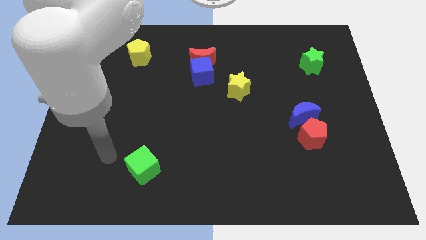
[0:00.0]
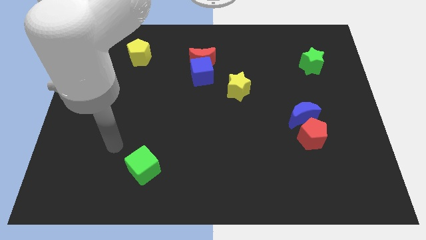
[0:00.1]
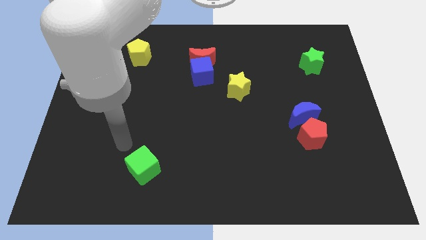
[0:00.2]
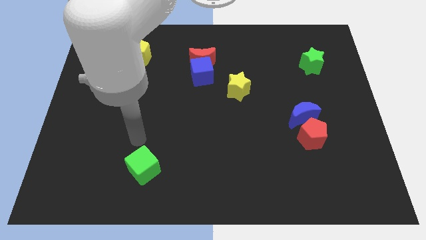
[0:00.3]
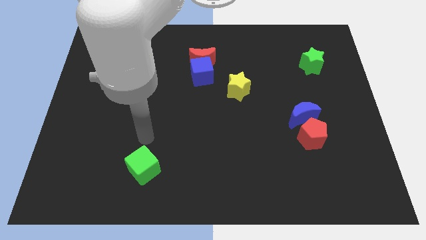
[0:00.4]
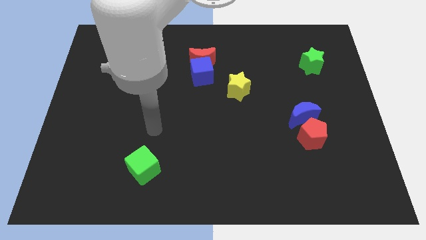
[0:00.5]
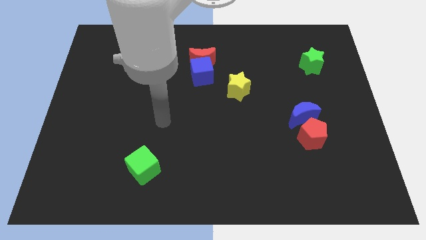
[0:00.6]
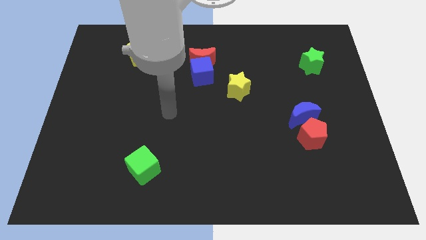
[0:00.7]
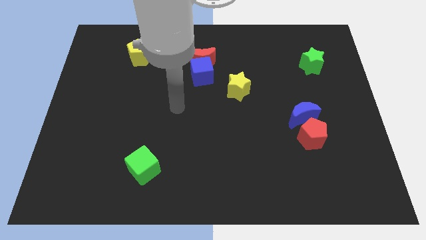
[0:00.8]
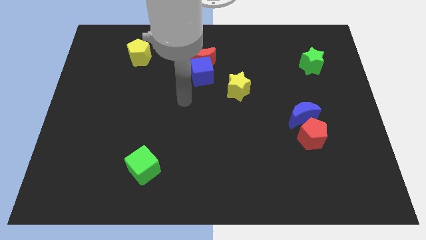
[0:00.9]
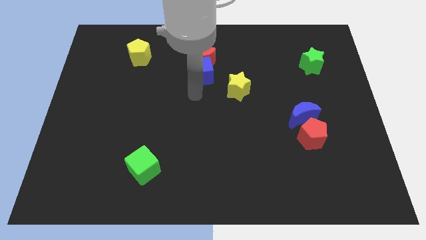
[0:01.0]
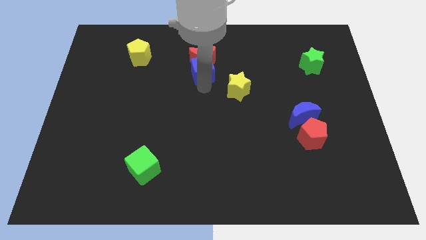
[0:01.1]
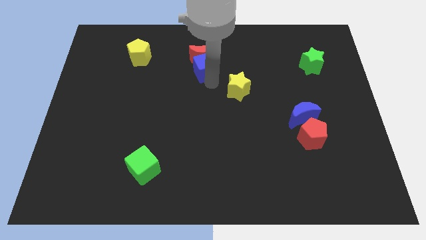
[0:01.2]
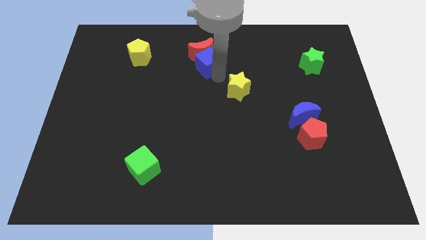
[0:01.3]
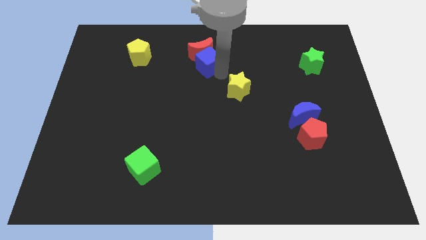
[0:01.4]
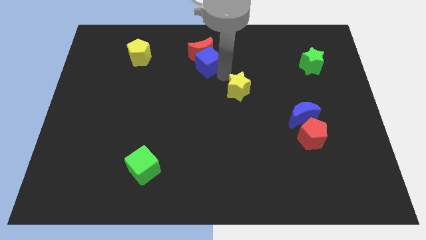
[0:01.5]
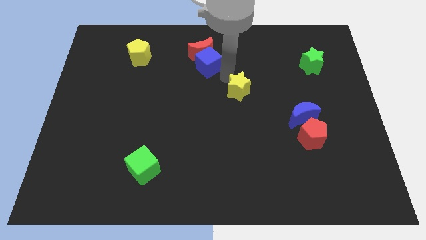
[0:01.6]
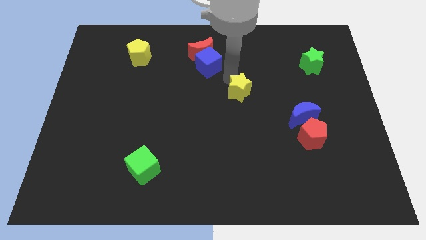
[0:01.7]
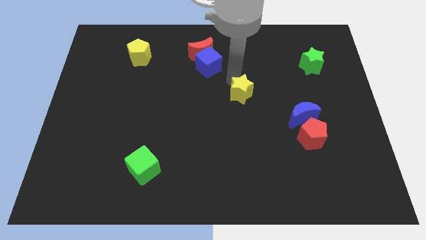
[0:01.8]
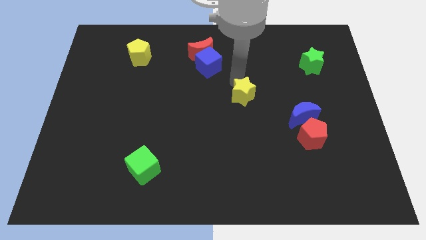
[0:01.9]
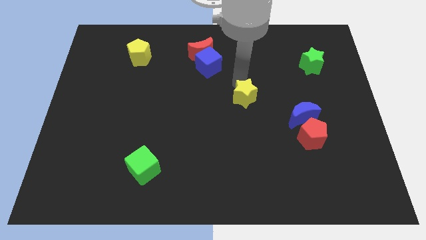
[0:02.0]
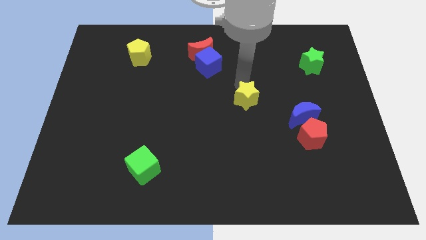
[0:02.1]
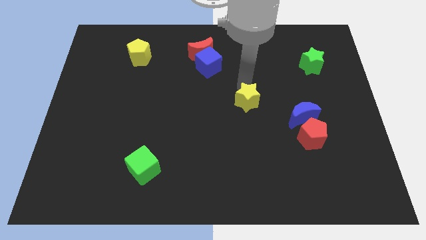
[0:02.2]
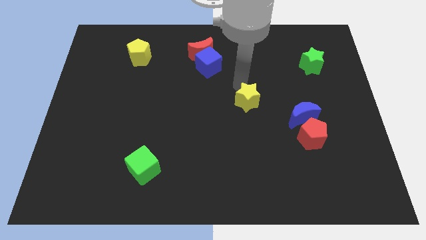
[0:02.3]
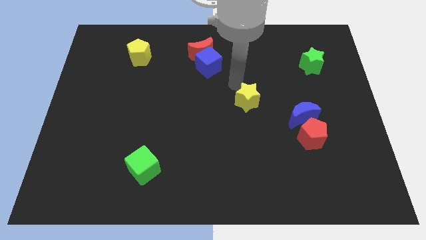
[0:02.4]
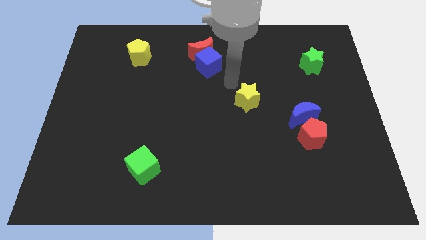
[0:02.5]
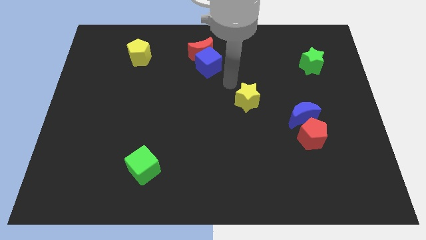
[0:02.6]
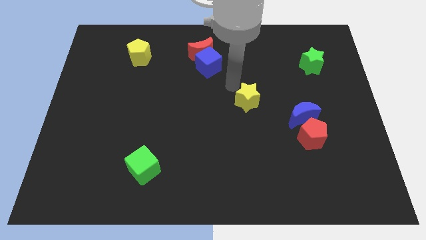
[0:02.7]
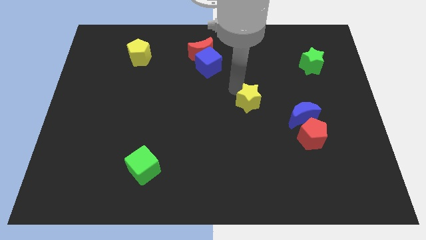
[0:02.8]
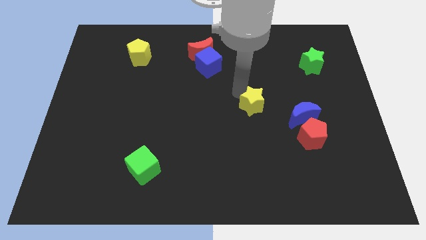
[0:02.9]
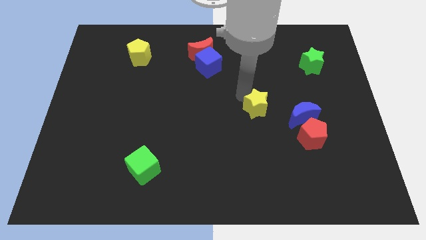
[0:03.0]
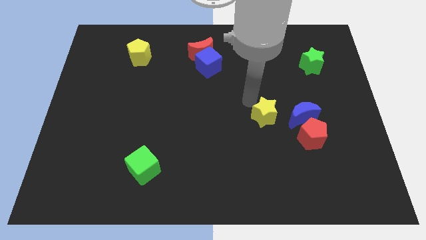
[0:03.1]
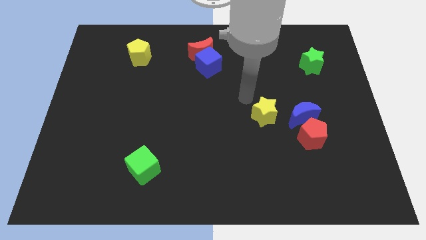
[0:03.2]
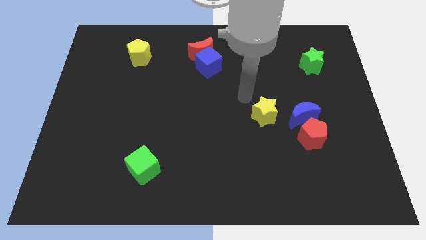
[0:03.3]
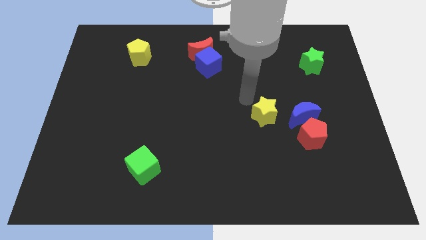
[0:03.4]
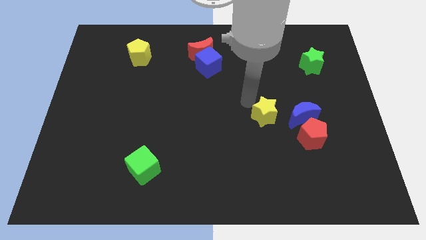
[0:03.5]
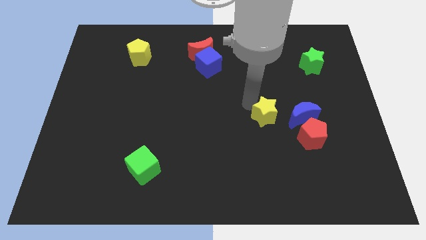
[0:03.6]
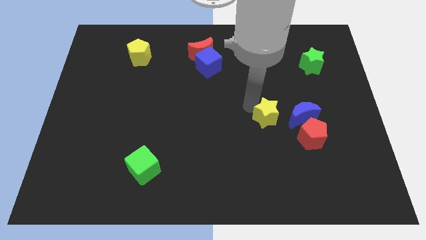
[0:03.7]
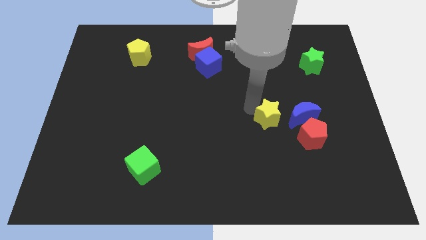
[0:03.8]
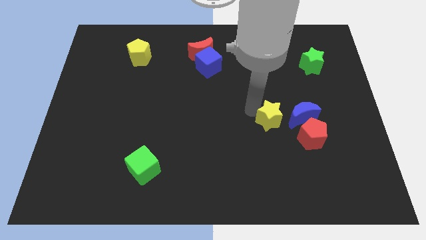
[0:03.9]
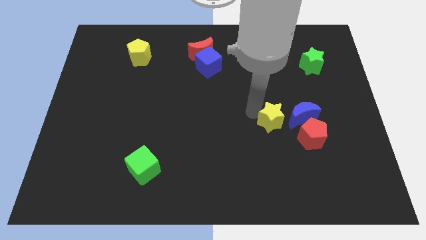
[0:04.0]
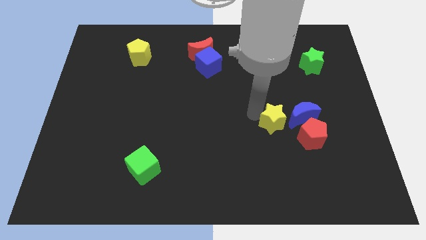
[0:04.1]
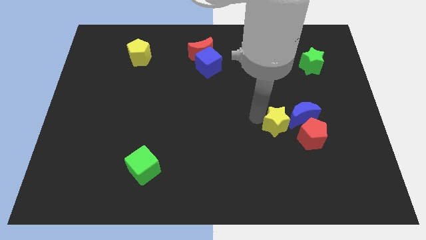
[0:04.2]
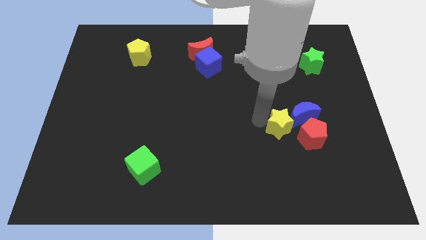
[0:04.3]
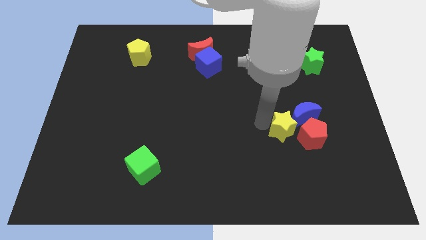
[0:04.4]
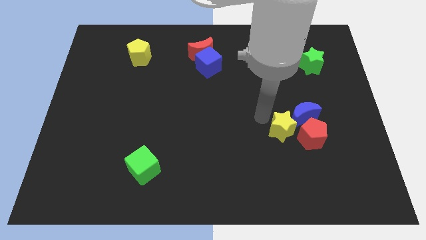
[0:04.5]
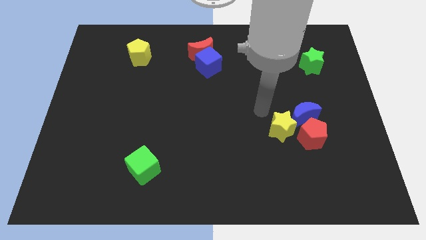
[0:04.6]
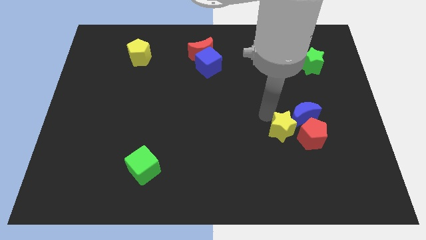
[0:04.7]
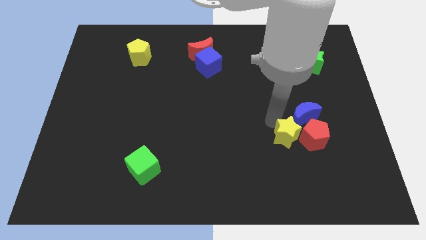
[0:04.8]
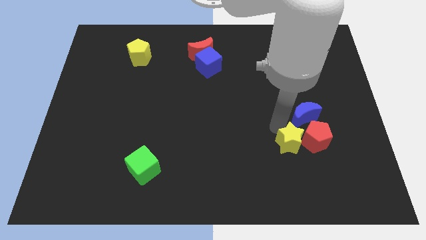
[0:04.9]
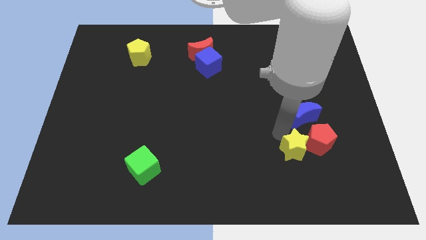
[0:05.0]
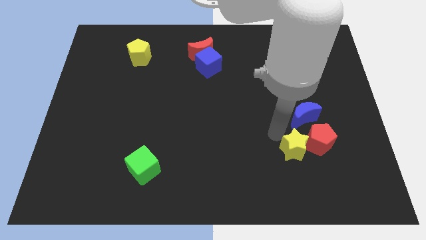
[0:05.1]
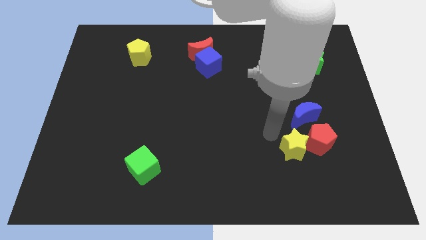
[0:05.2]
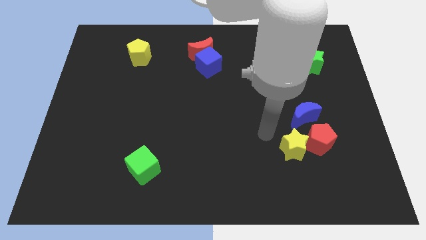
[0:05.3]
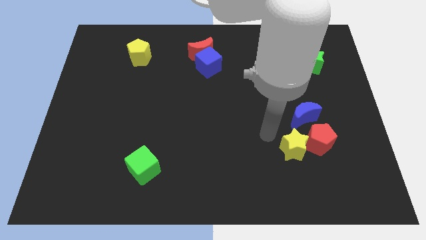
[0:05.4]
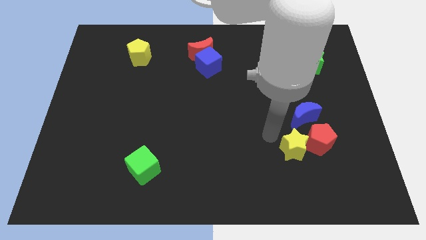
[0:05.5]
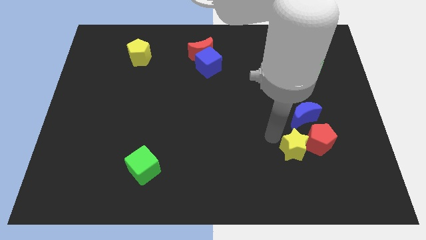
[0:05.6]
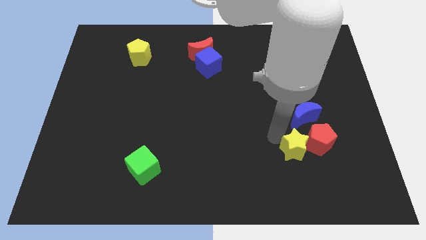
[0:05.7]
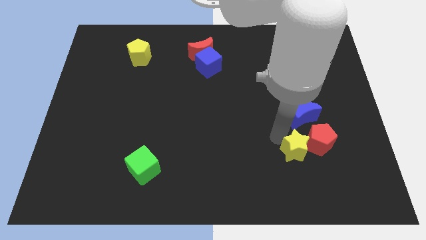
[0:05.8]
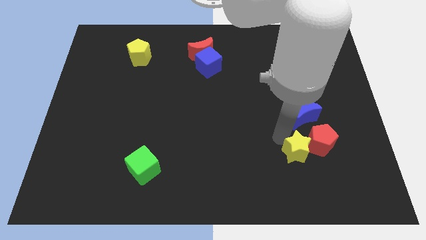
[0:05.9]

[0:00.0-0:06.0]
move the yellow star diagonally down and to the right

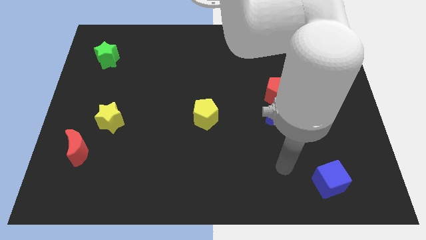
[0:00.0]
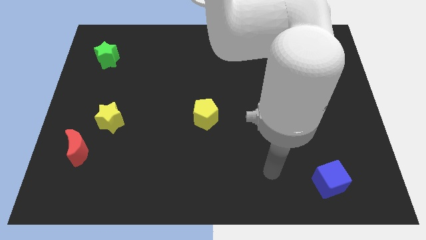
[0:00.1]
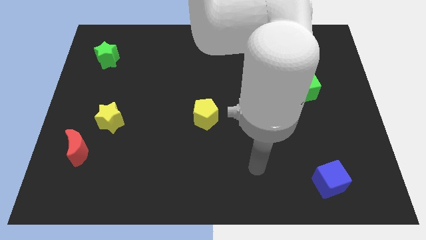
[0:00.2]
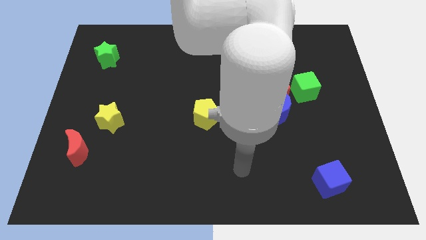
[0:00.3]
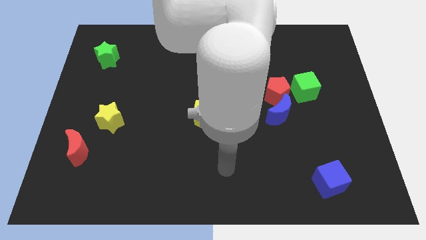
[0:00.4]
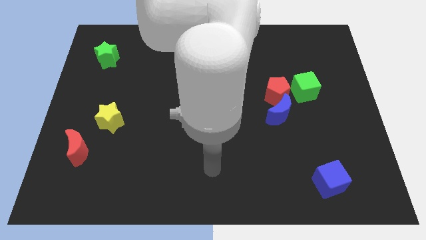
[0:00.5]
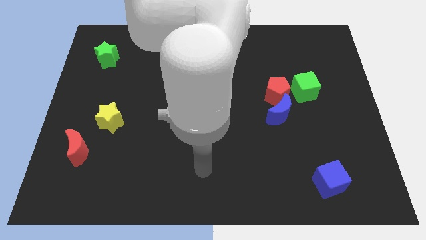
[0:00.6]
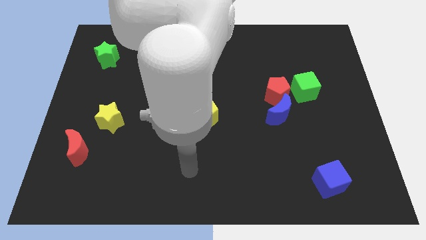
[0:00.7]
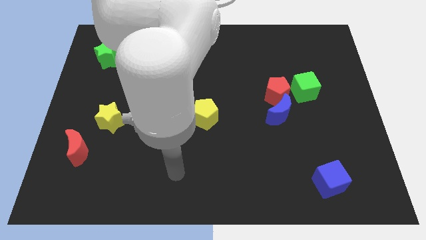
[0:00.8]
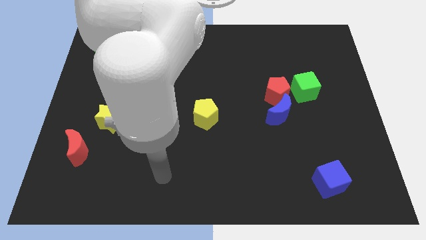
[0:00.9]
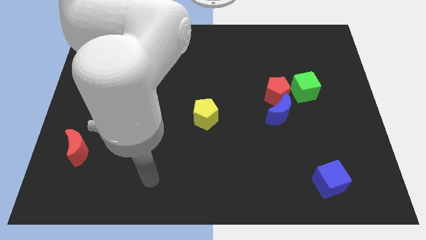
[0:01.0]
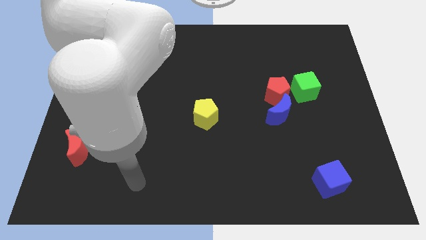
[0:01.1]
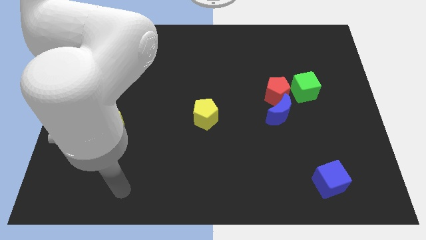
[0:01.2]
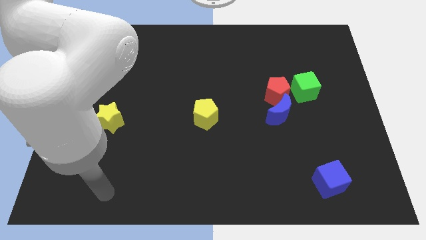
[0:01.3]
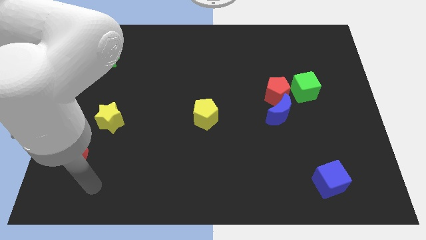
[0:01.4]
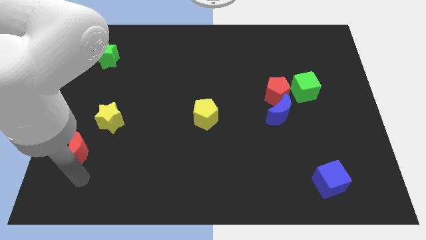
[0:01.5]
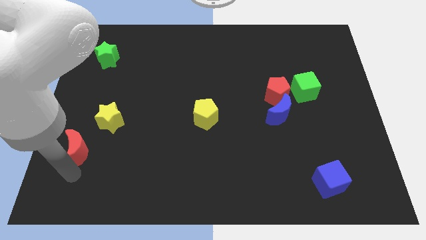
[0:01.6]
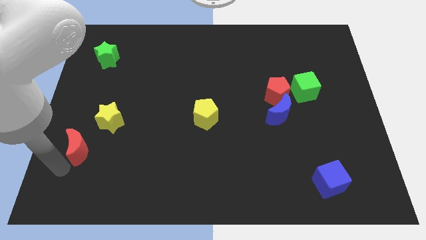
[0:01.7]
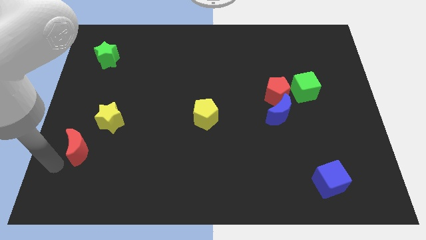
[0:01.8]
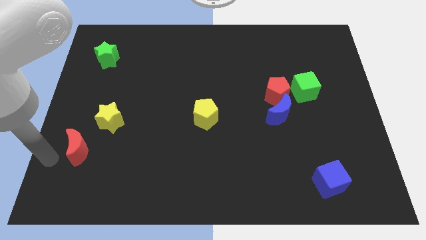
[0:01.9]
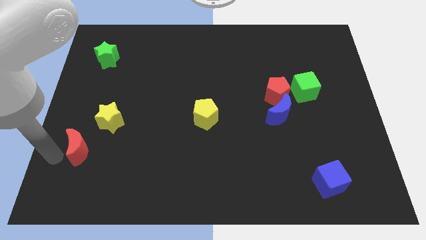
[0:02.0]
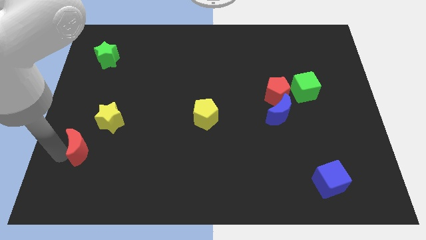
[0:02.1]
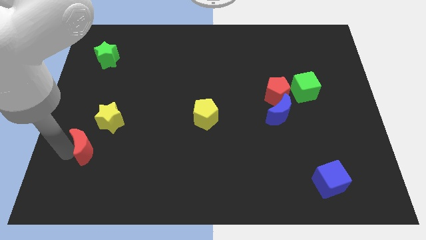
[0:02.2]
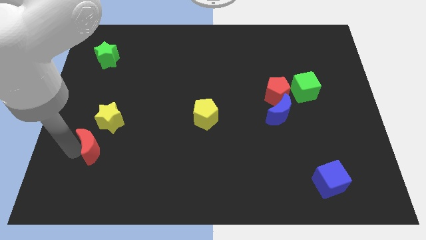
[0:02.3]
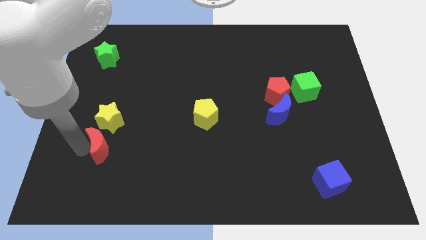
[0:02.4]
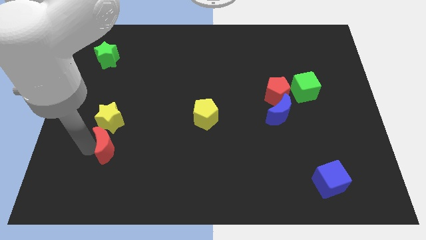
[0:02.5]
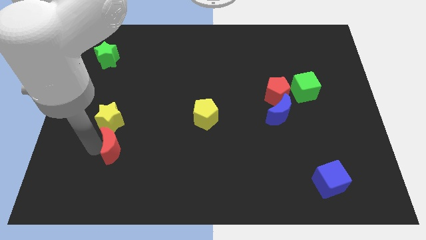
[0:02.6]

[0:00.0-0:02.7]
push the red moon slightly right
